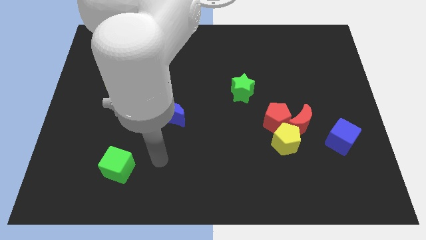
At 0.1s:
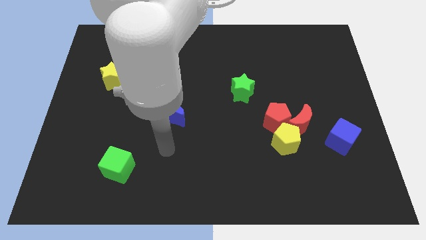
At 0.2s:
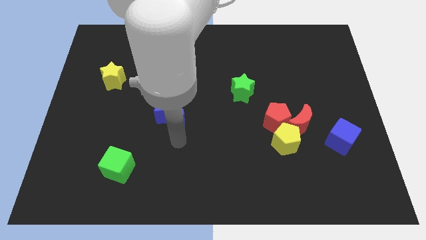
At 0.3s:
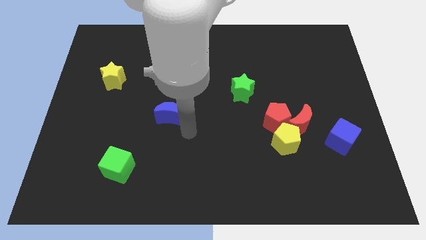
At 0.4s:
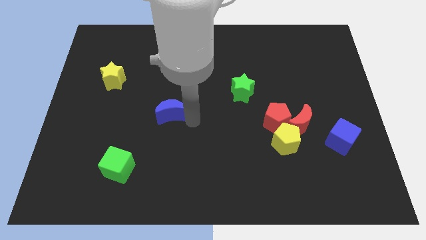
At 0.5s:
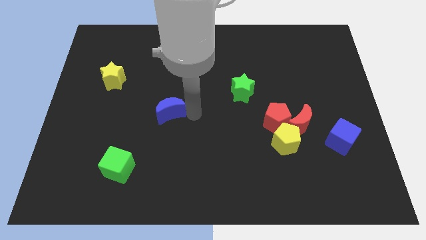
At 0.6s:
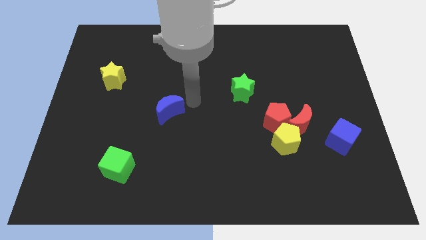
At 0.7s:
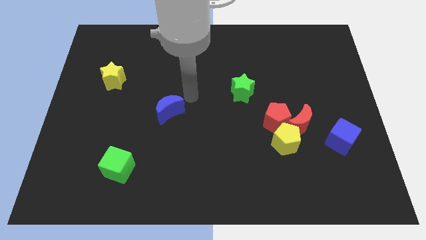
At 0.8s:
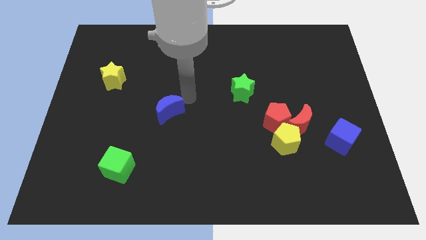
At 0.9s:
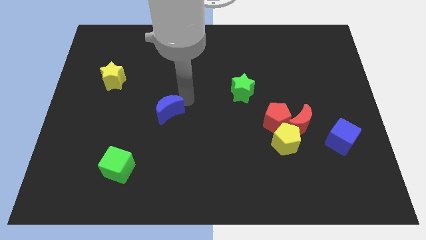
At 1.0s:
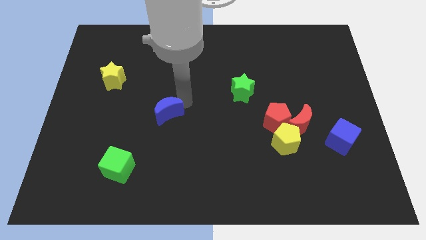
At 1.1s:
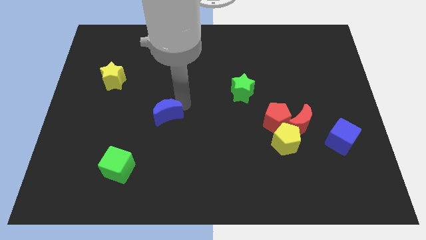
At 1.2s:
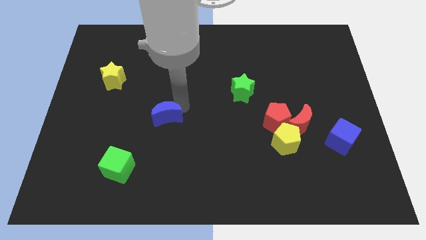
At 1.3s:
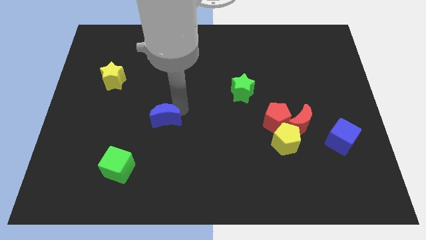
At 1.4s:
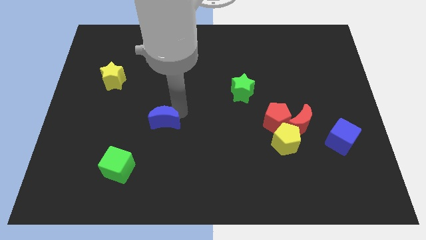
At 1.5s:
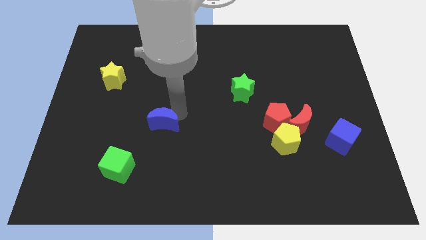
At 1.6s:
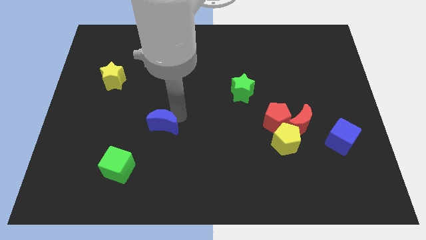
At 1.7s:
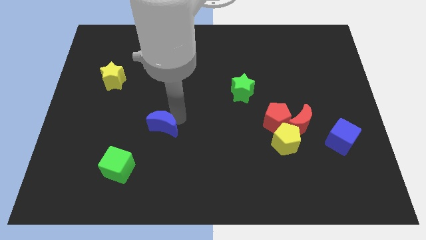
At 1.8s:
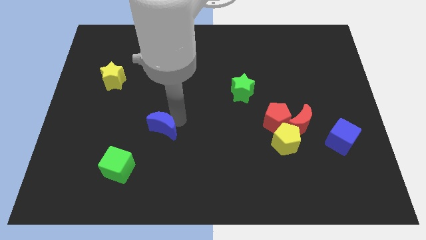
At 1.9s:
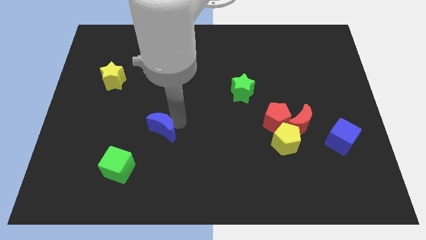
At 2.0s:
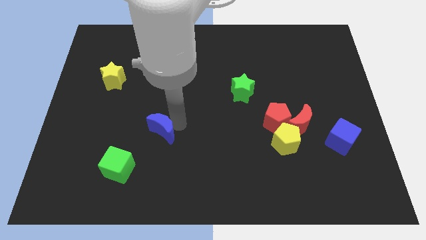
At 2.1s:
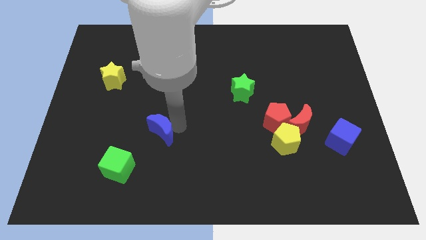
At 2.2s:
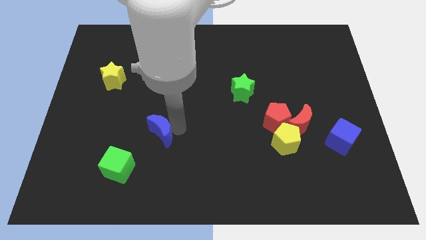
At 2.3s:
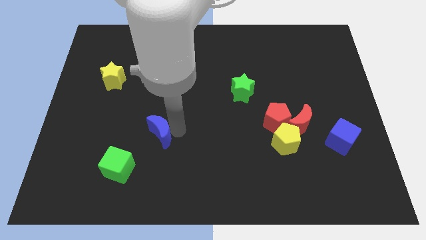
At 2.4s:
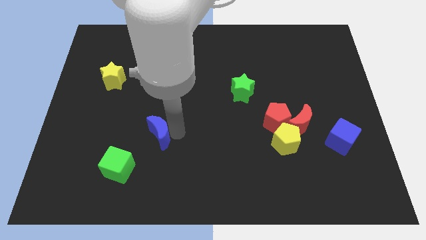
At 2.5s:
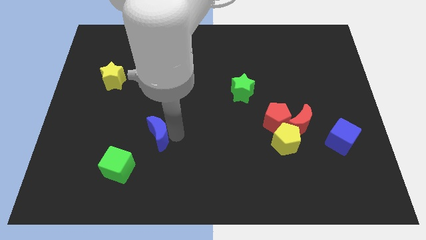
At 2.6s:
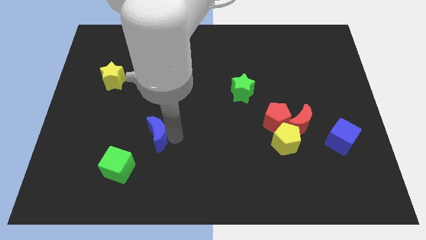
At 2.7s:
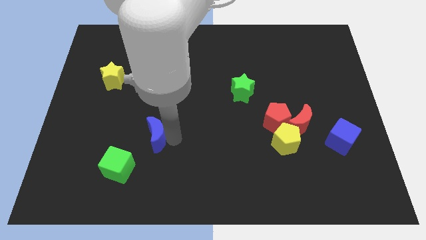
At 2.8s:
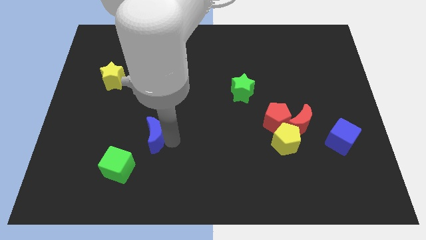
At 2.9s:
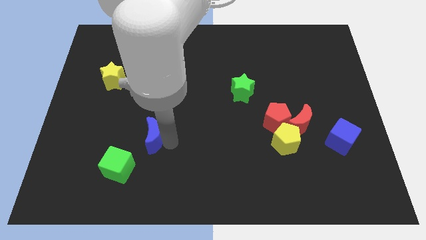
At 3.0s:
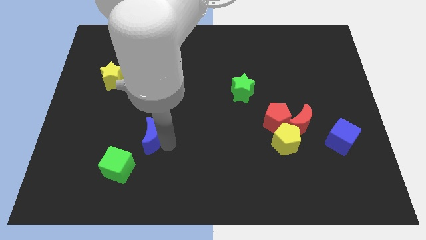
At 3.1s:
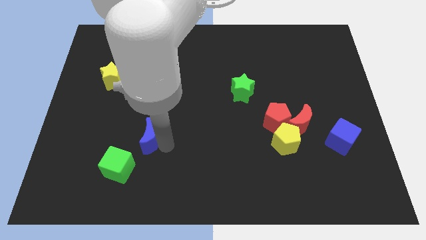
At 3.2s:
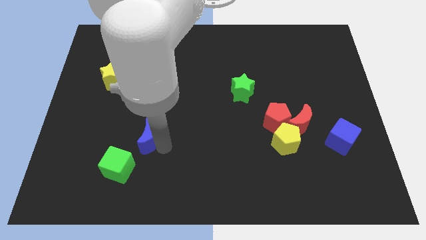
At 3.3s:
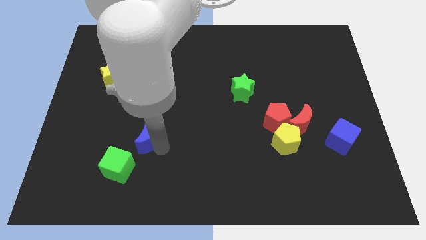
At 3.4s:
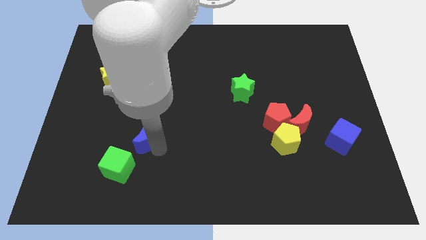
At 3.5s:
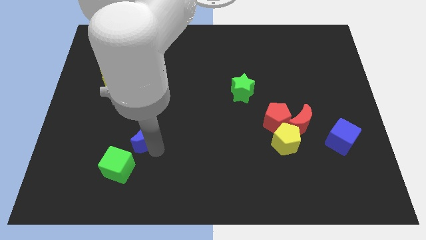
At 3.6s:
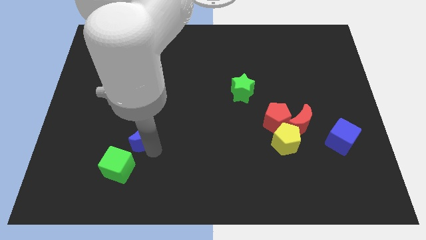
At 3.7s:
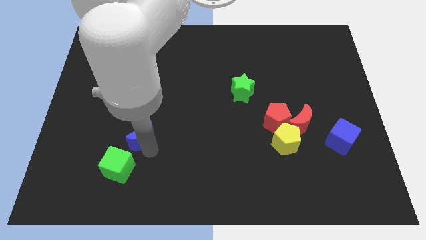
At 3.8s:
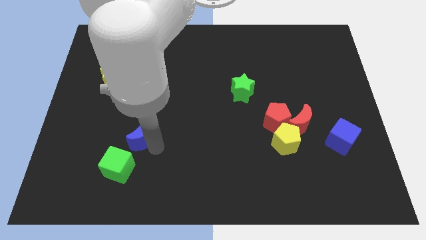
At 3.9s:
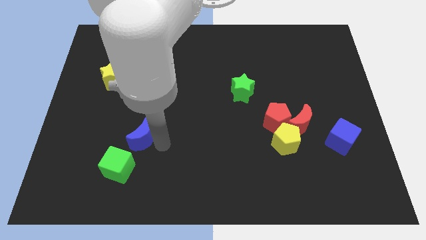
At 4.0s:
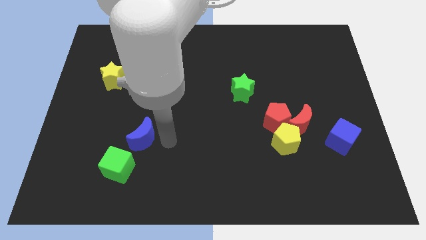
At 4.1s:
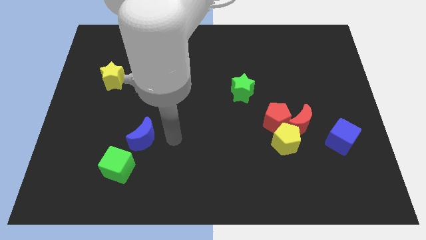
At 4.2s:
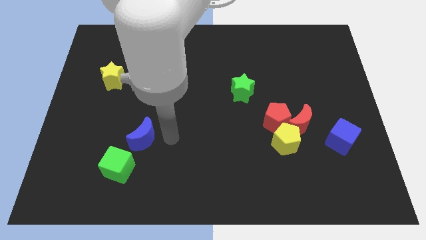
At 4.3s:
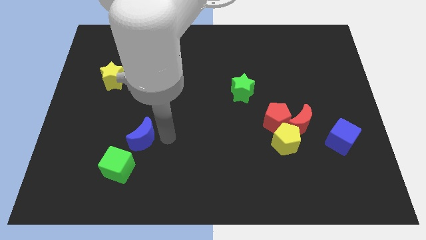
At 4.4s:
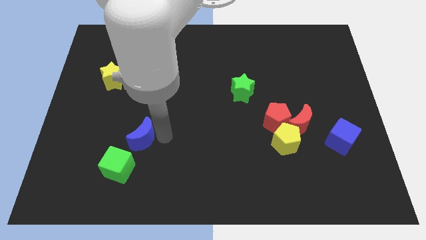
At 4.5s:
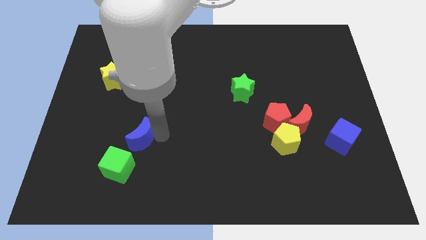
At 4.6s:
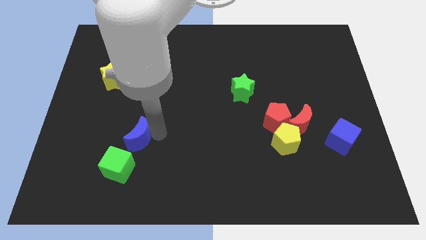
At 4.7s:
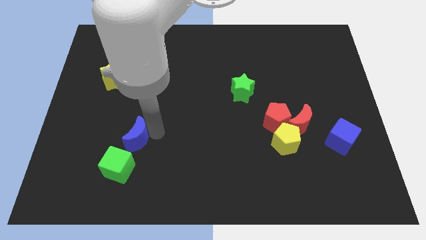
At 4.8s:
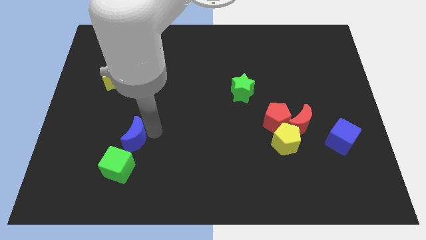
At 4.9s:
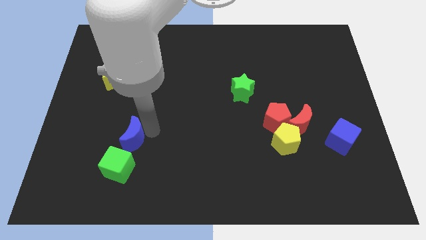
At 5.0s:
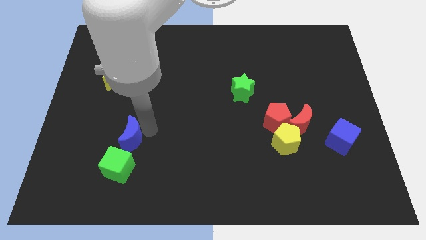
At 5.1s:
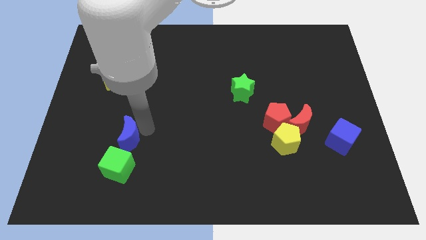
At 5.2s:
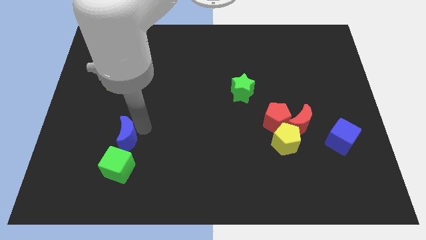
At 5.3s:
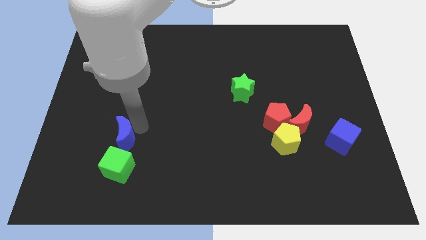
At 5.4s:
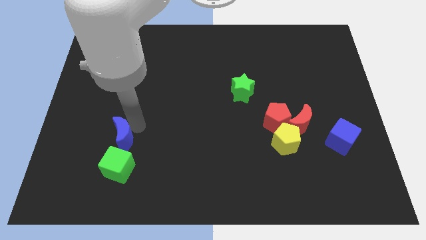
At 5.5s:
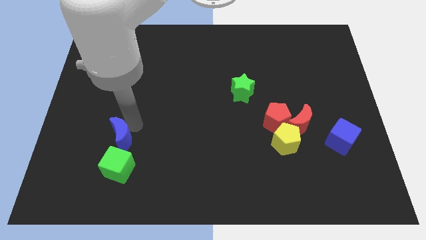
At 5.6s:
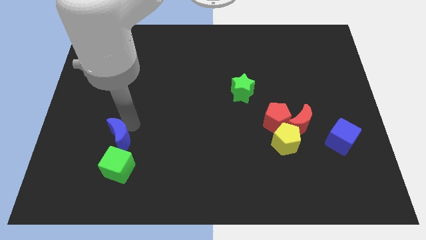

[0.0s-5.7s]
push the blue moon to the top left of the green cube

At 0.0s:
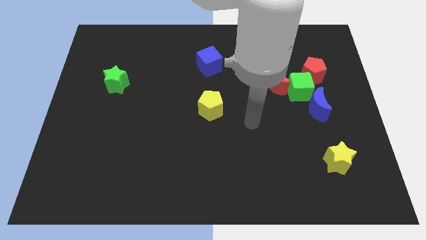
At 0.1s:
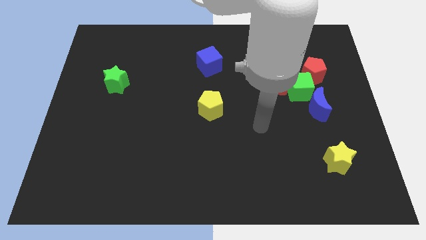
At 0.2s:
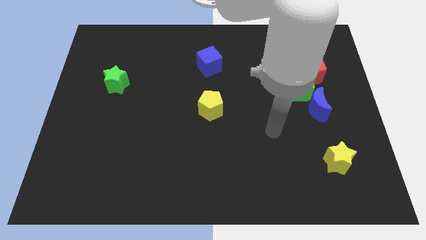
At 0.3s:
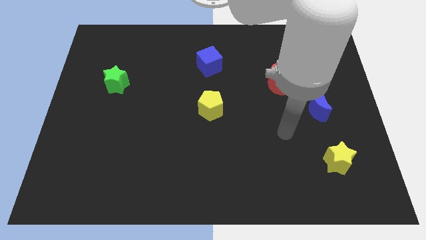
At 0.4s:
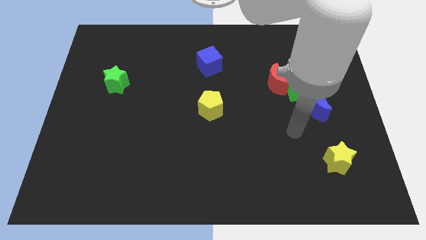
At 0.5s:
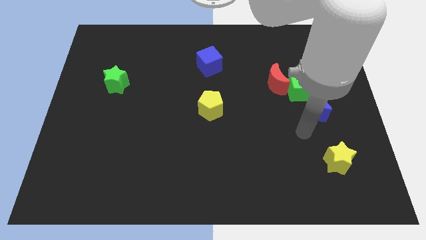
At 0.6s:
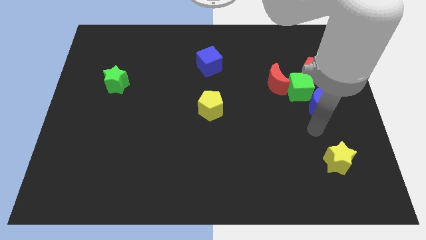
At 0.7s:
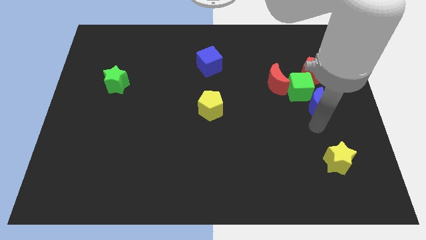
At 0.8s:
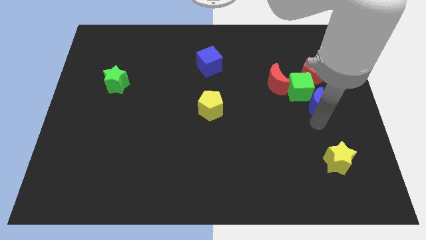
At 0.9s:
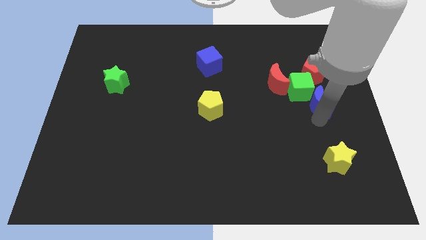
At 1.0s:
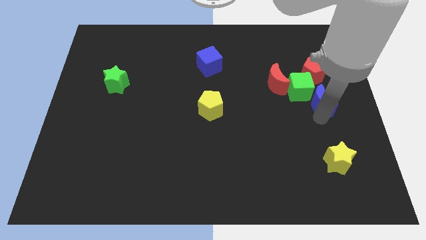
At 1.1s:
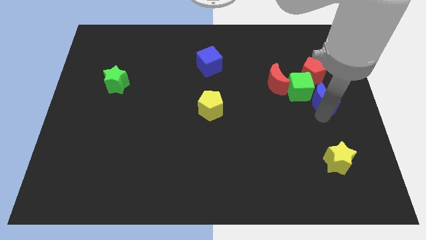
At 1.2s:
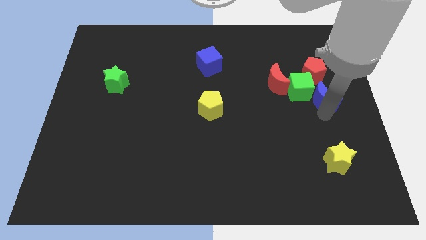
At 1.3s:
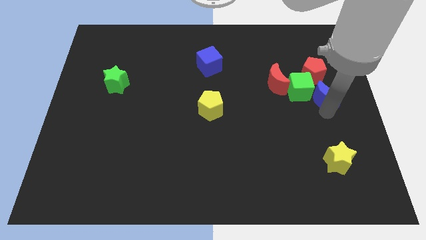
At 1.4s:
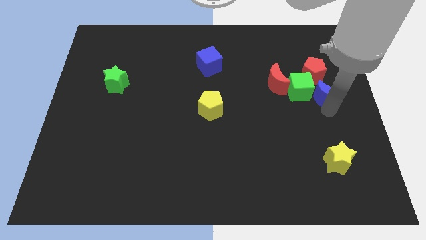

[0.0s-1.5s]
slide the blue moon just right of the red moon

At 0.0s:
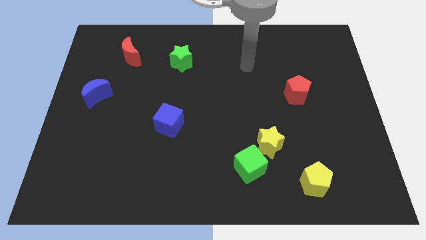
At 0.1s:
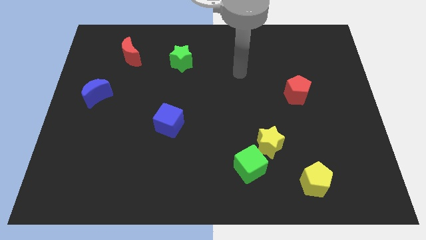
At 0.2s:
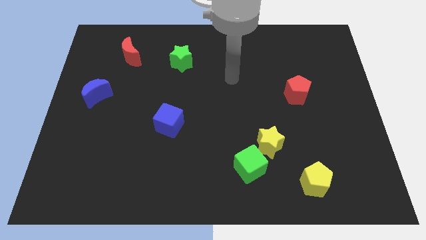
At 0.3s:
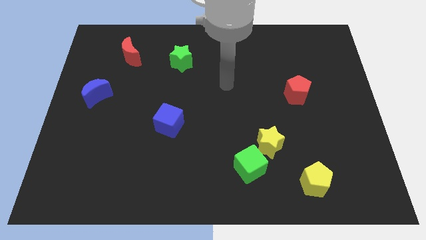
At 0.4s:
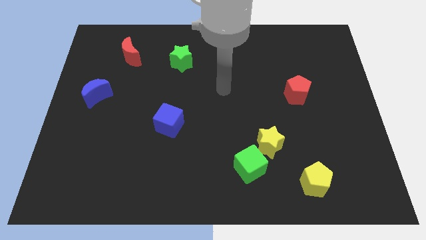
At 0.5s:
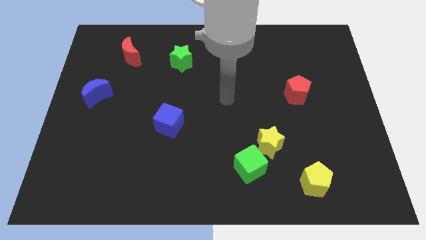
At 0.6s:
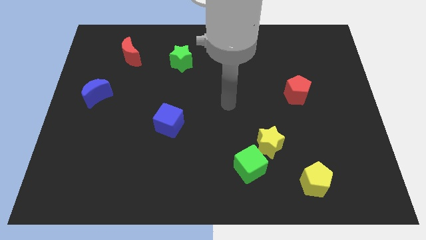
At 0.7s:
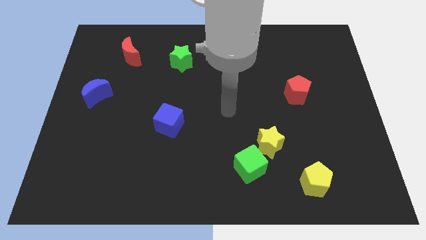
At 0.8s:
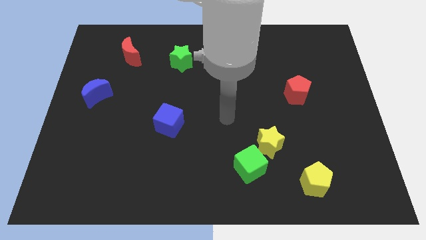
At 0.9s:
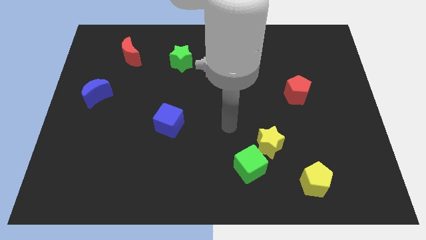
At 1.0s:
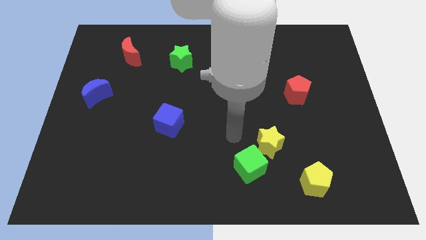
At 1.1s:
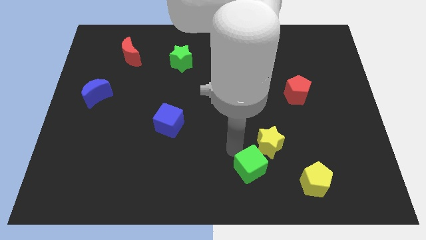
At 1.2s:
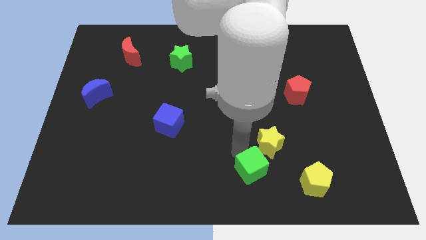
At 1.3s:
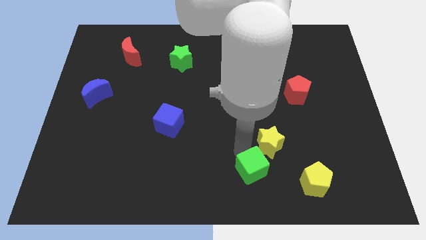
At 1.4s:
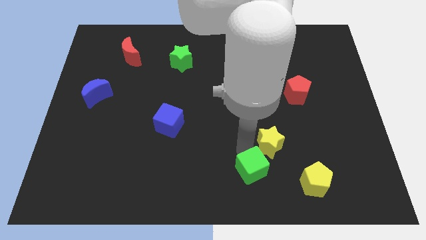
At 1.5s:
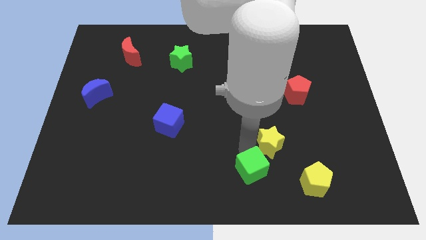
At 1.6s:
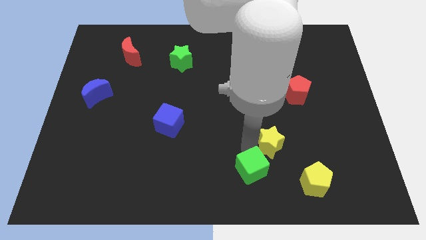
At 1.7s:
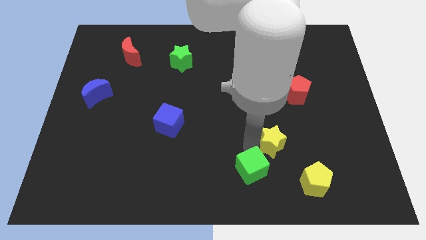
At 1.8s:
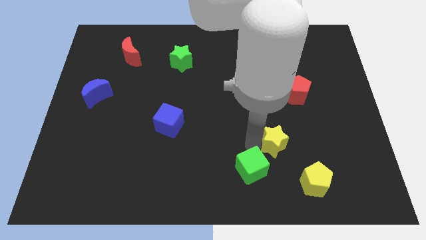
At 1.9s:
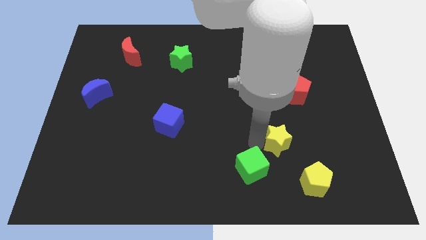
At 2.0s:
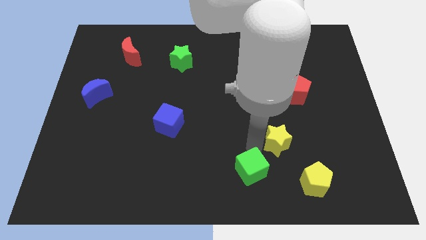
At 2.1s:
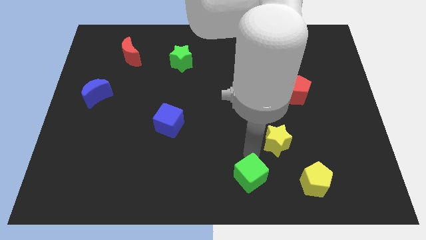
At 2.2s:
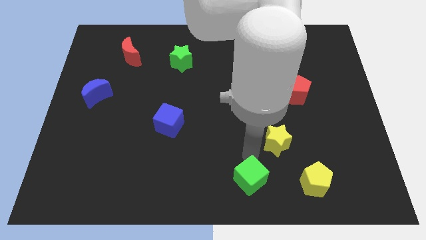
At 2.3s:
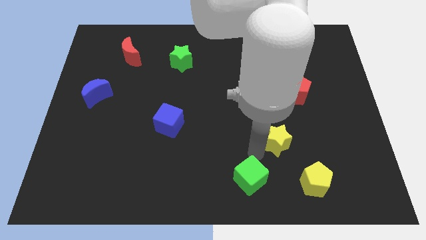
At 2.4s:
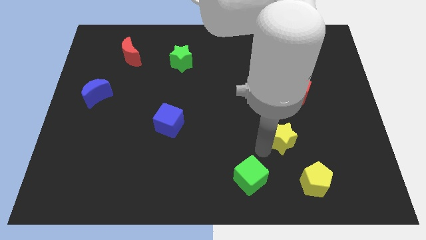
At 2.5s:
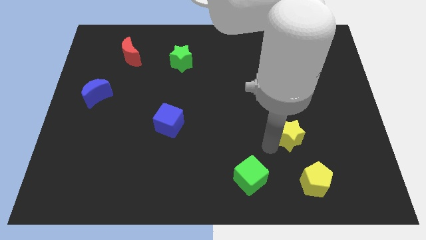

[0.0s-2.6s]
put the yellow star below the red pentagon
